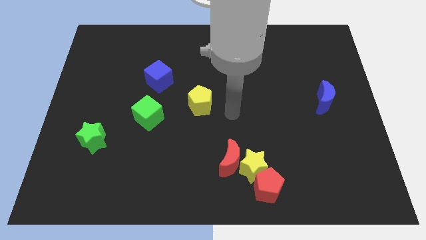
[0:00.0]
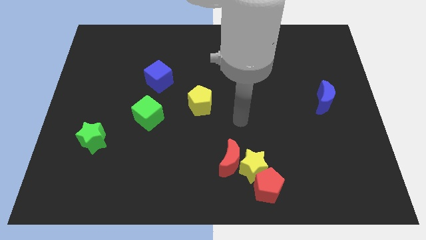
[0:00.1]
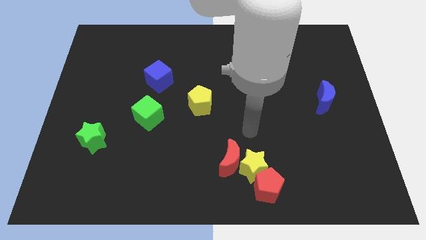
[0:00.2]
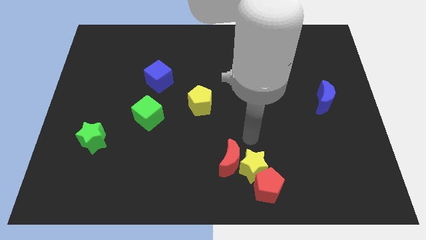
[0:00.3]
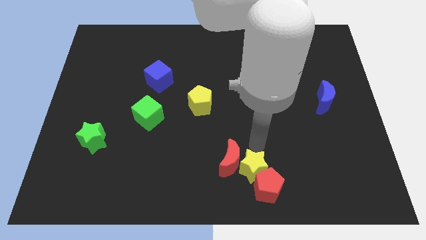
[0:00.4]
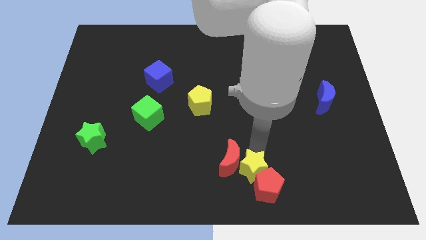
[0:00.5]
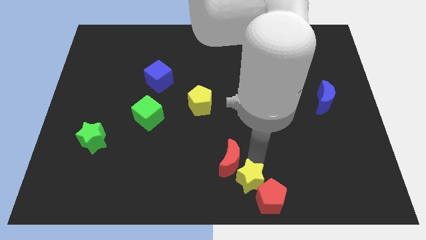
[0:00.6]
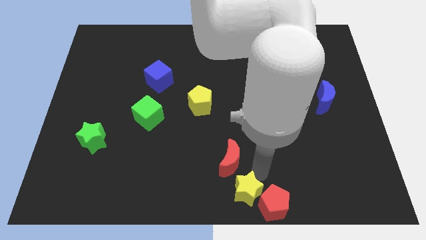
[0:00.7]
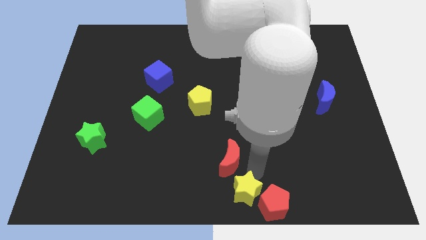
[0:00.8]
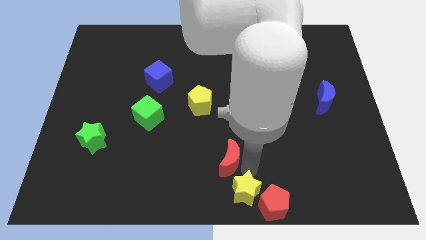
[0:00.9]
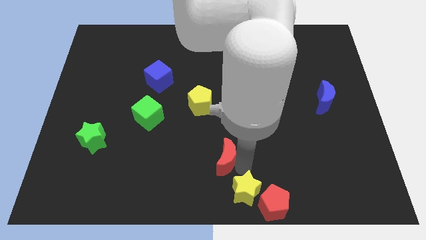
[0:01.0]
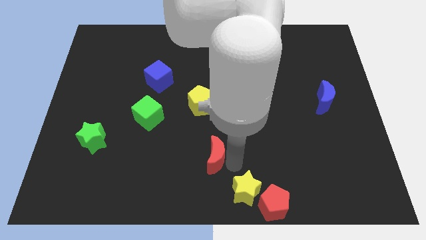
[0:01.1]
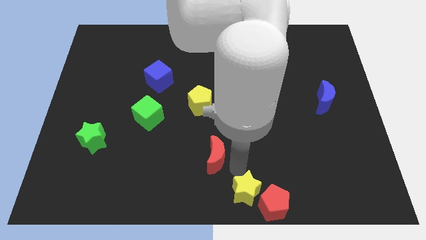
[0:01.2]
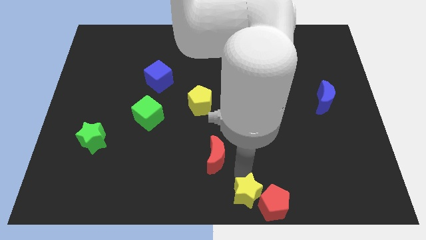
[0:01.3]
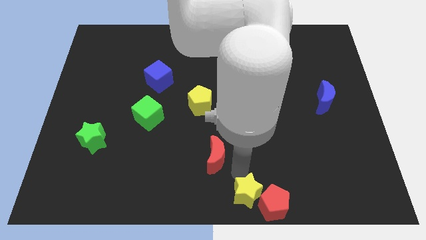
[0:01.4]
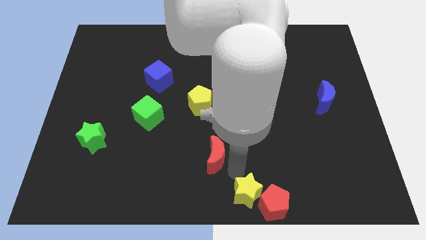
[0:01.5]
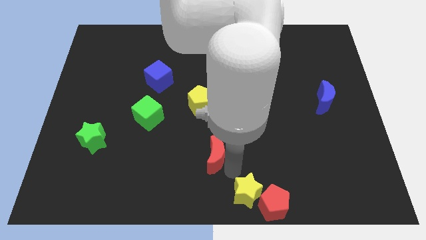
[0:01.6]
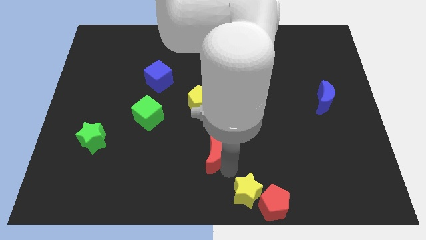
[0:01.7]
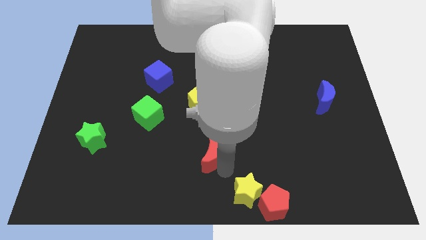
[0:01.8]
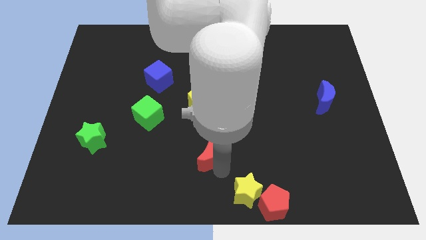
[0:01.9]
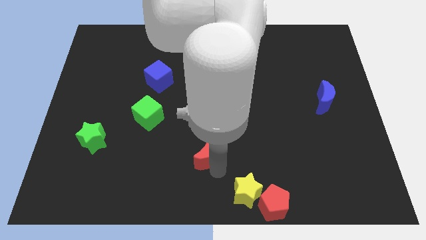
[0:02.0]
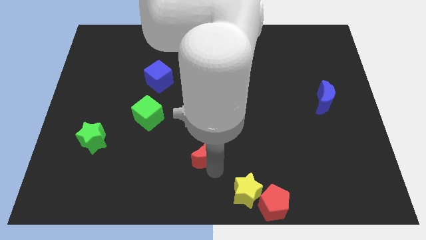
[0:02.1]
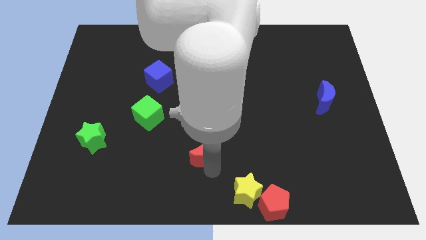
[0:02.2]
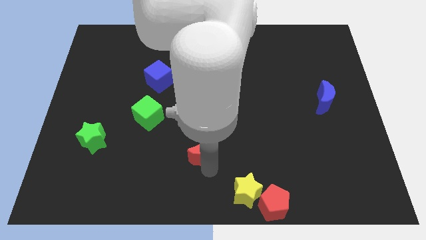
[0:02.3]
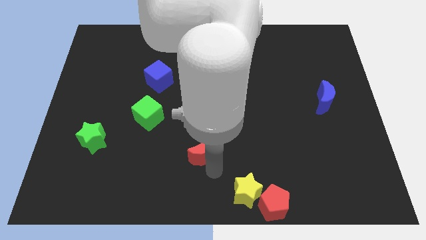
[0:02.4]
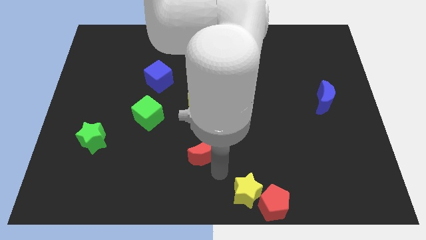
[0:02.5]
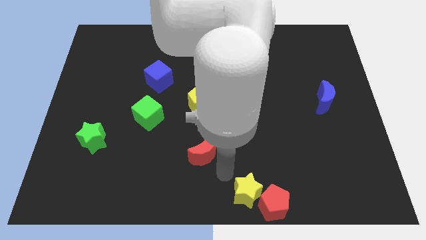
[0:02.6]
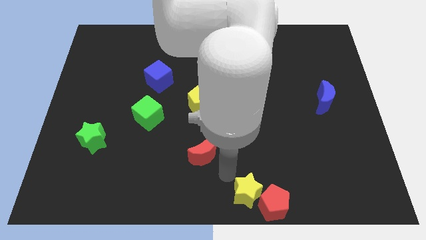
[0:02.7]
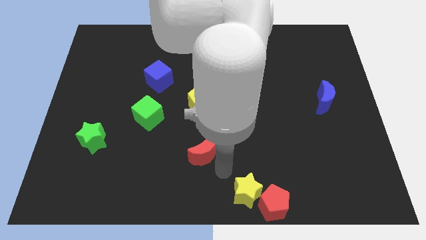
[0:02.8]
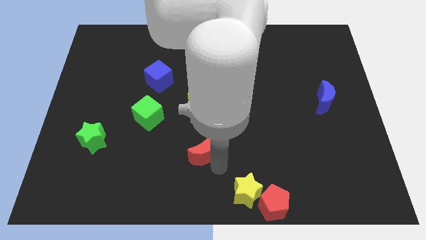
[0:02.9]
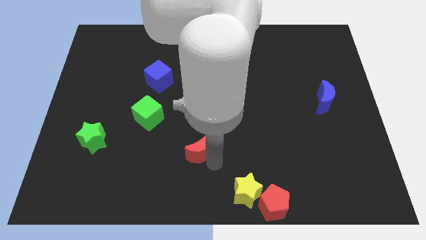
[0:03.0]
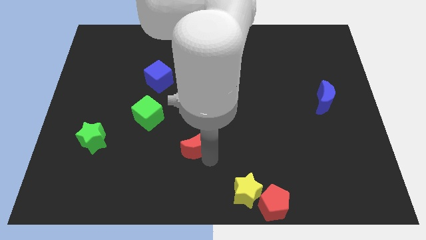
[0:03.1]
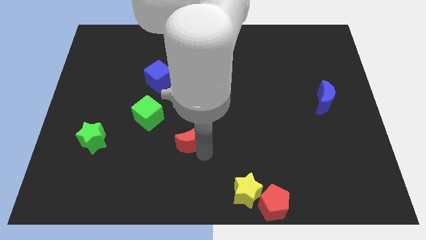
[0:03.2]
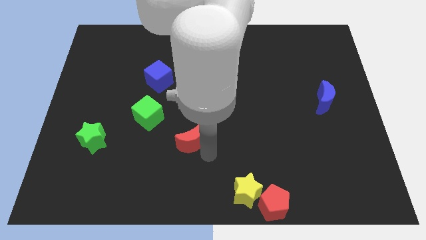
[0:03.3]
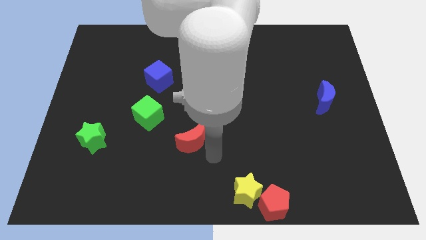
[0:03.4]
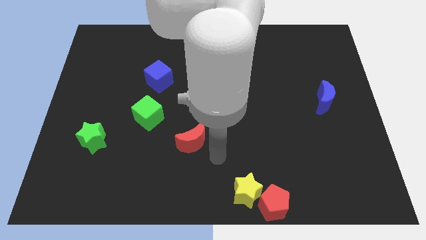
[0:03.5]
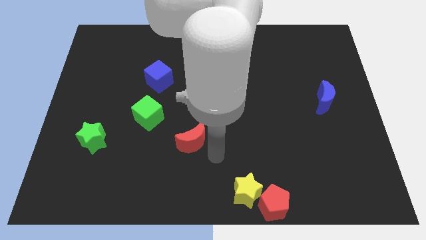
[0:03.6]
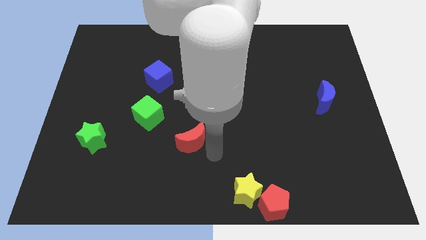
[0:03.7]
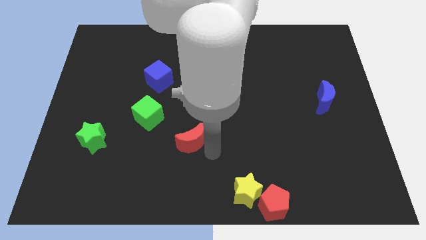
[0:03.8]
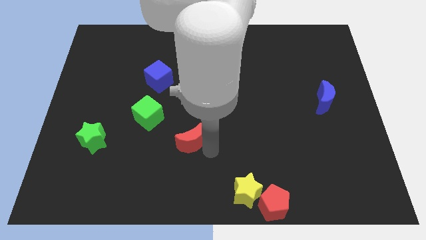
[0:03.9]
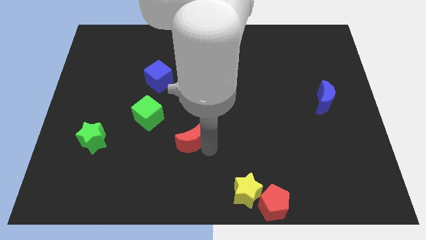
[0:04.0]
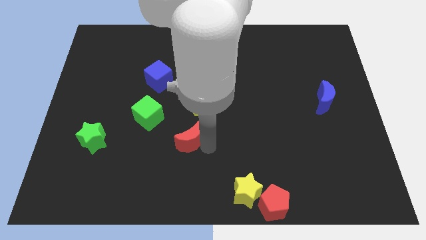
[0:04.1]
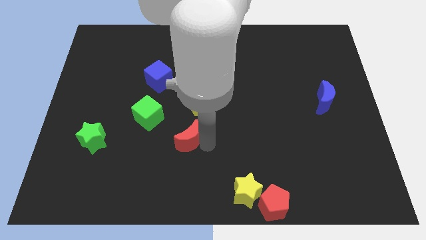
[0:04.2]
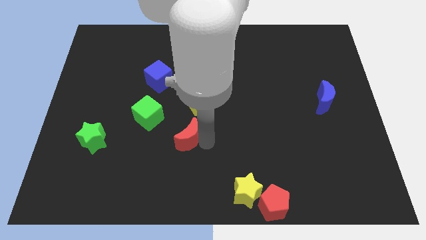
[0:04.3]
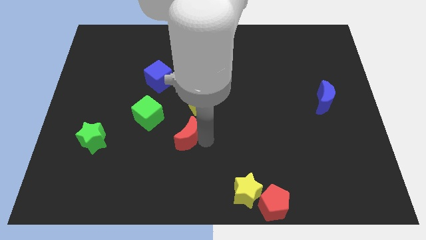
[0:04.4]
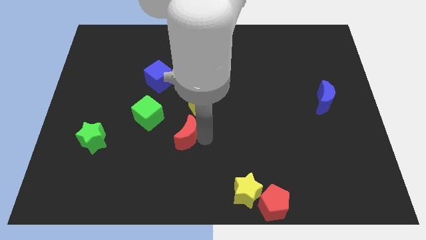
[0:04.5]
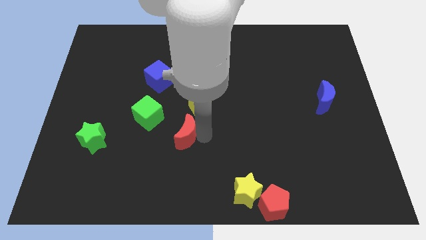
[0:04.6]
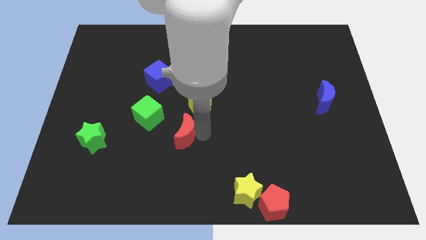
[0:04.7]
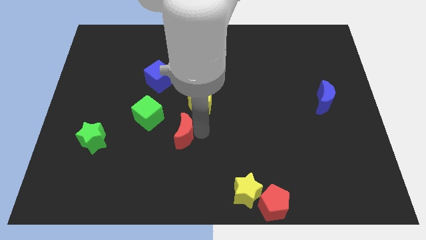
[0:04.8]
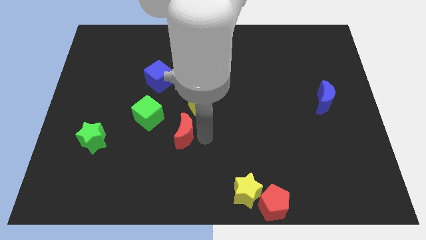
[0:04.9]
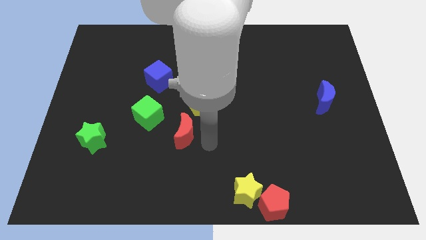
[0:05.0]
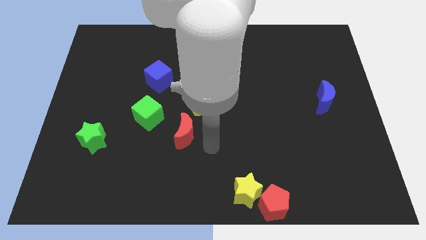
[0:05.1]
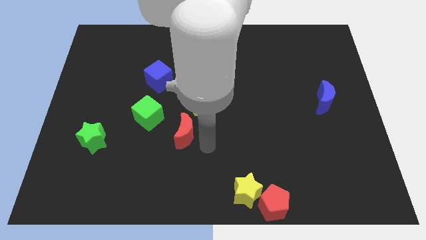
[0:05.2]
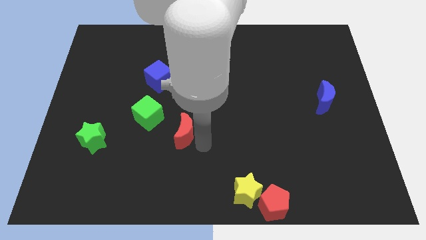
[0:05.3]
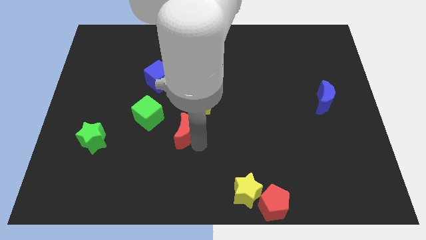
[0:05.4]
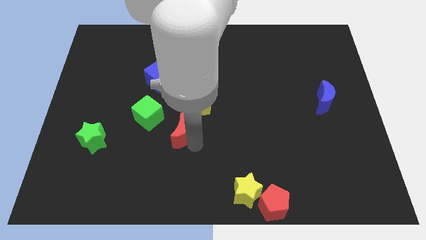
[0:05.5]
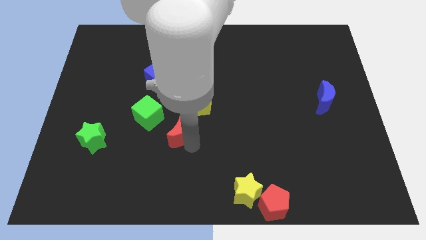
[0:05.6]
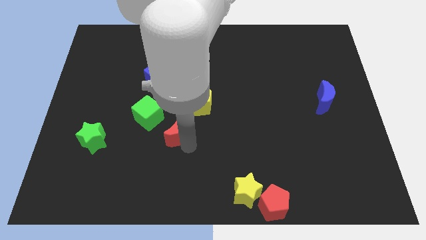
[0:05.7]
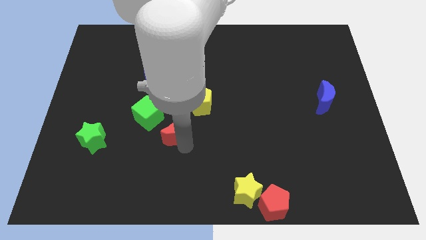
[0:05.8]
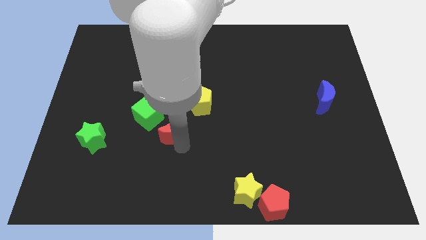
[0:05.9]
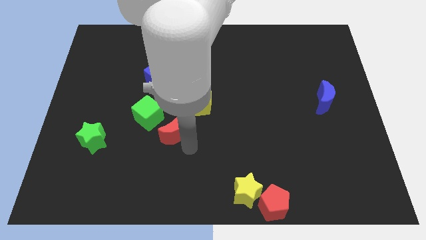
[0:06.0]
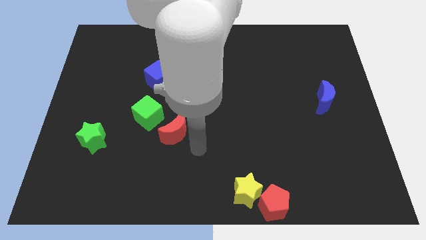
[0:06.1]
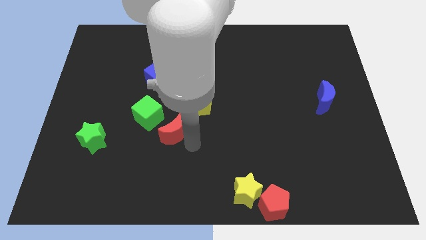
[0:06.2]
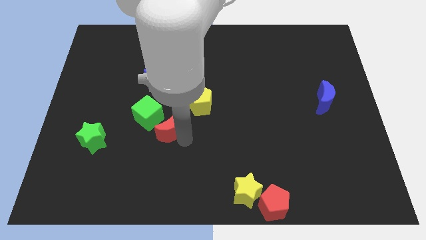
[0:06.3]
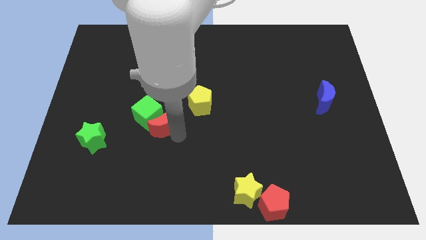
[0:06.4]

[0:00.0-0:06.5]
slide the red moon close to the green cube

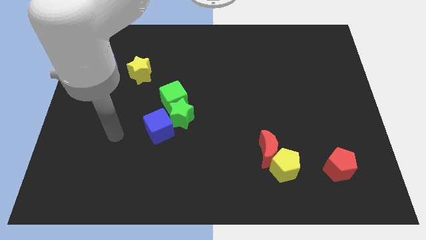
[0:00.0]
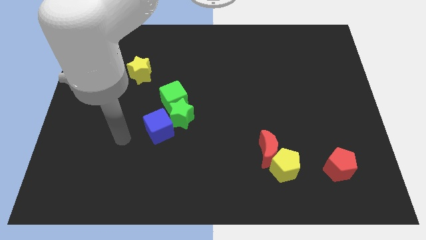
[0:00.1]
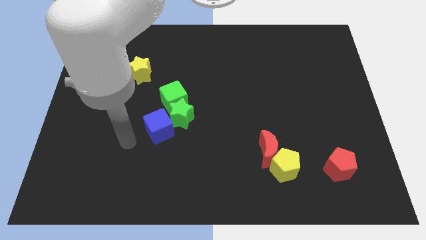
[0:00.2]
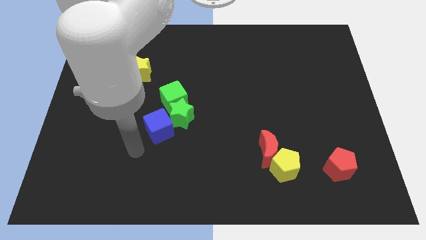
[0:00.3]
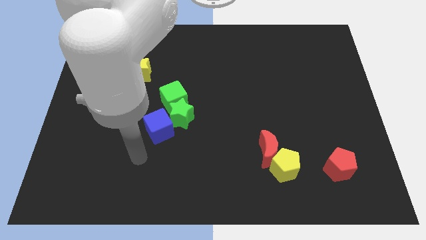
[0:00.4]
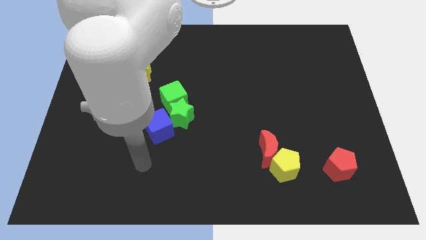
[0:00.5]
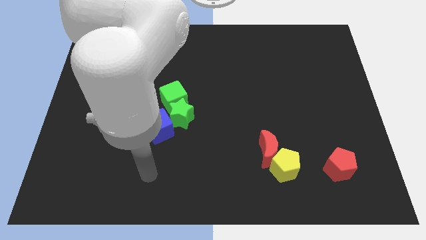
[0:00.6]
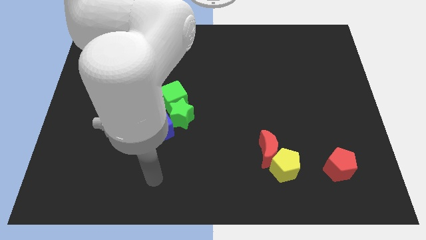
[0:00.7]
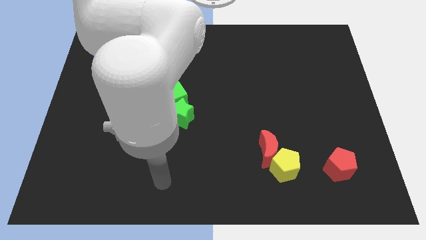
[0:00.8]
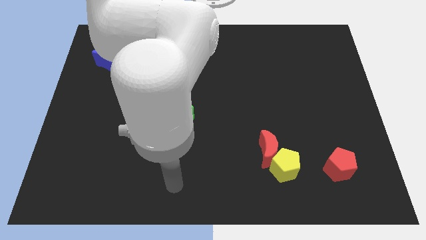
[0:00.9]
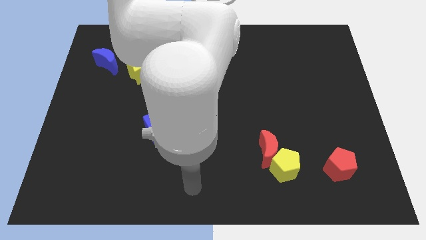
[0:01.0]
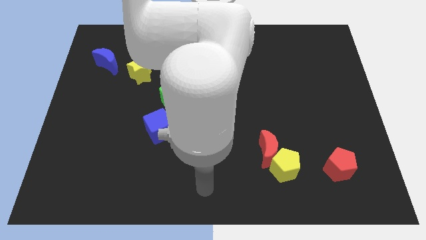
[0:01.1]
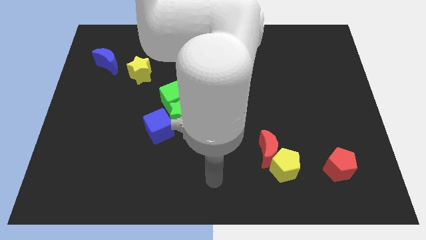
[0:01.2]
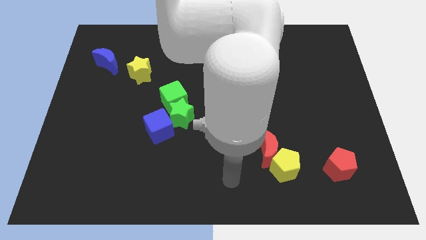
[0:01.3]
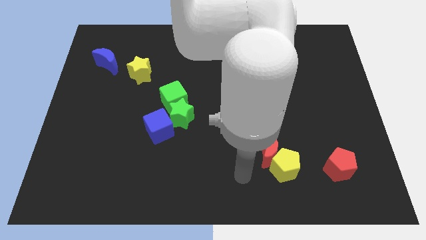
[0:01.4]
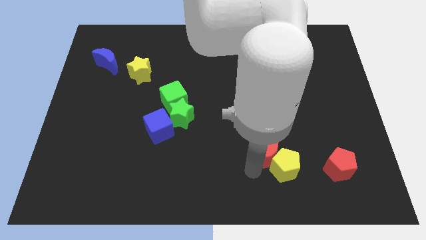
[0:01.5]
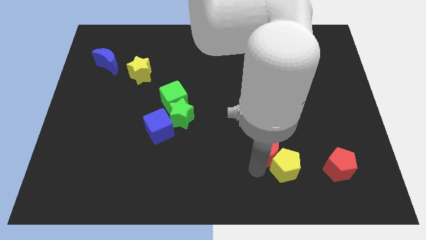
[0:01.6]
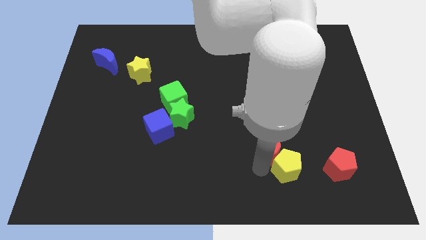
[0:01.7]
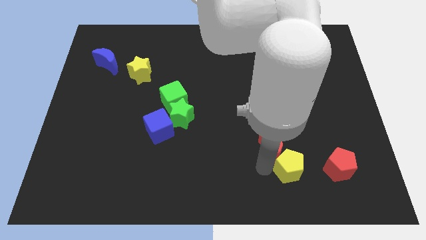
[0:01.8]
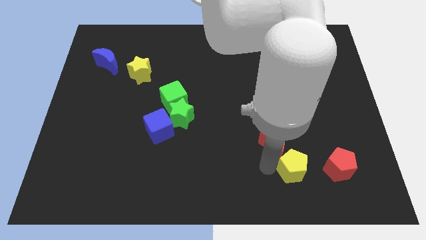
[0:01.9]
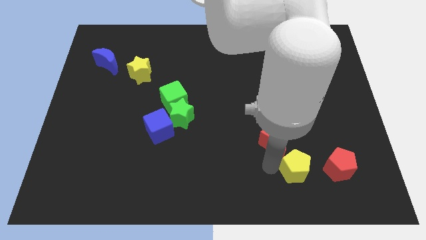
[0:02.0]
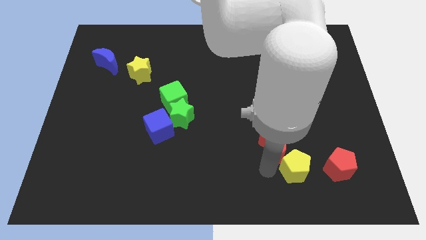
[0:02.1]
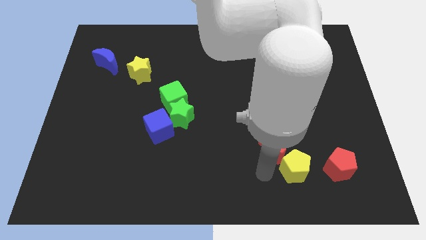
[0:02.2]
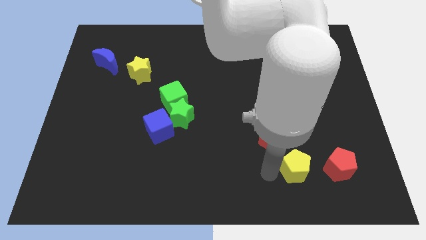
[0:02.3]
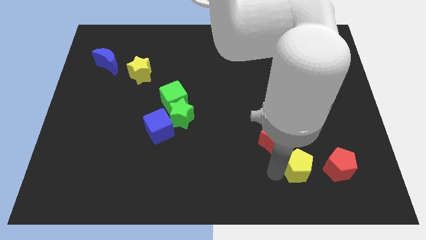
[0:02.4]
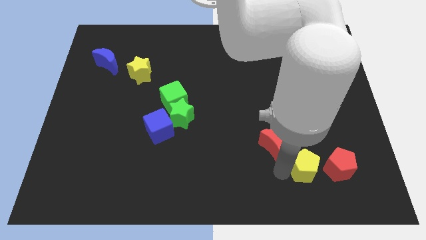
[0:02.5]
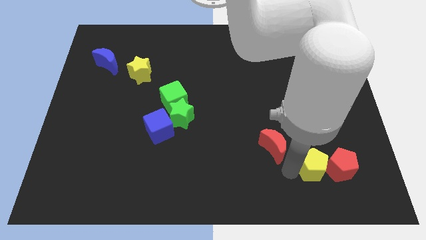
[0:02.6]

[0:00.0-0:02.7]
slide the yellow pentagon to the red pentagon
